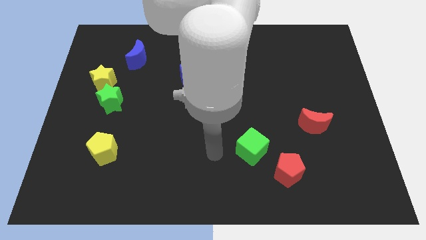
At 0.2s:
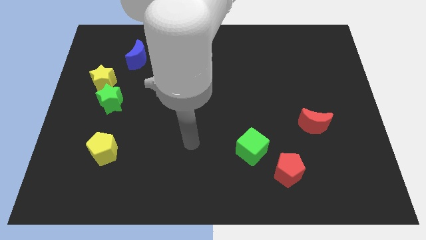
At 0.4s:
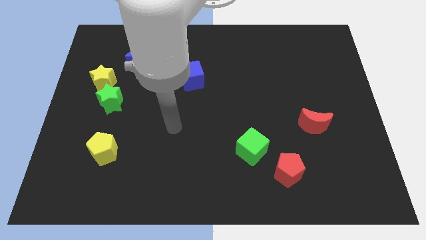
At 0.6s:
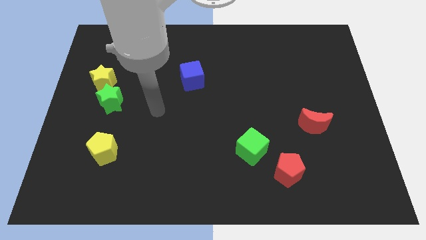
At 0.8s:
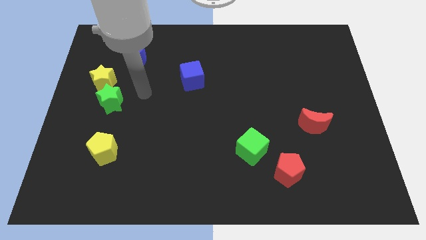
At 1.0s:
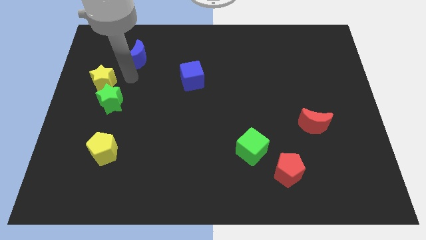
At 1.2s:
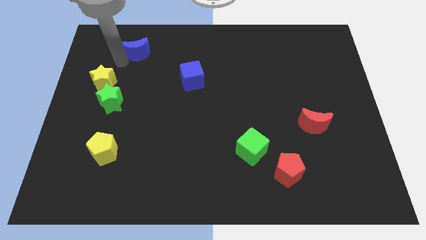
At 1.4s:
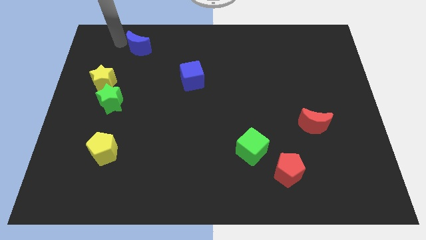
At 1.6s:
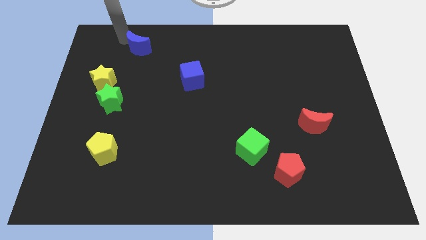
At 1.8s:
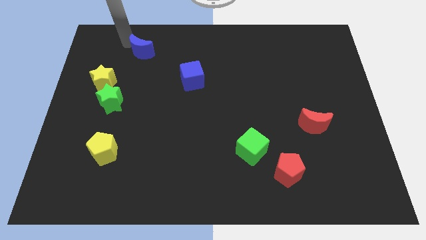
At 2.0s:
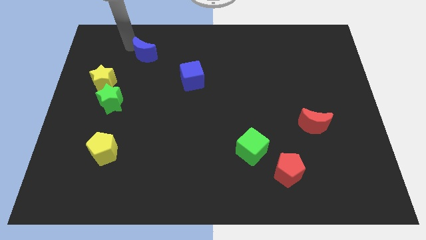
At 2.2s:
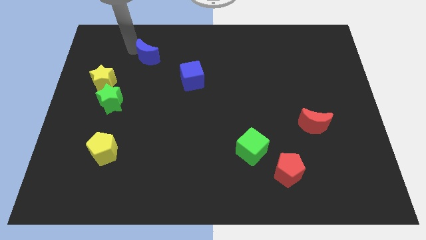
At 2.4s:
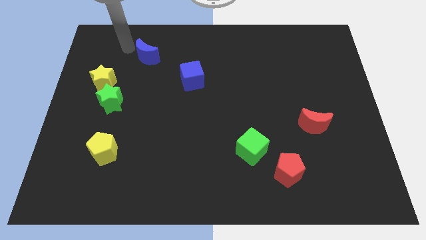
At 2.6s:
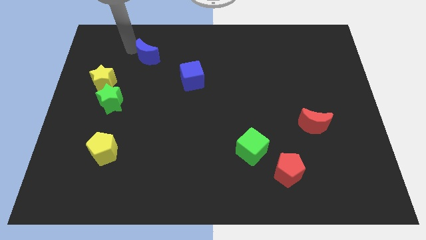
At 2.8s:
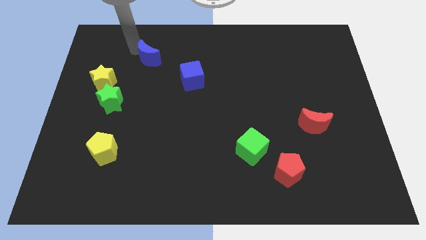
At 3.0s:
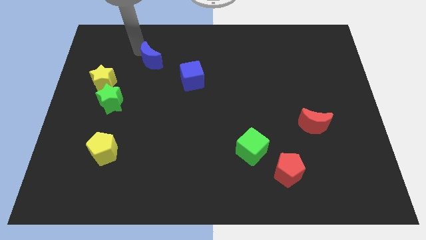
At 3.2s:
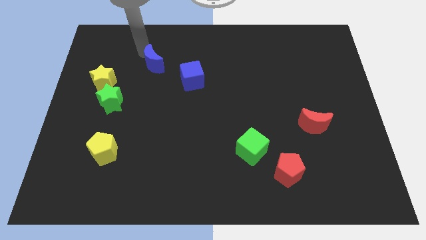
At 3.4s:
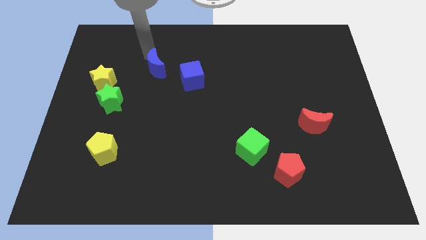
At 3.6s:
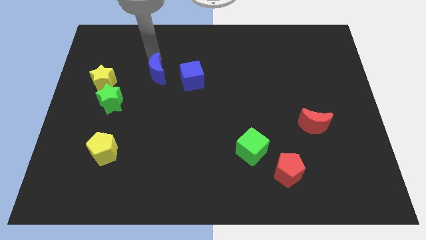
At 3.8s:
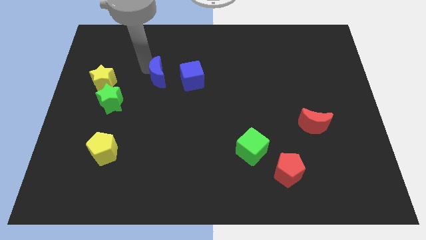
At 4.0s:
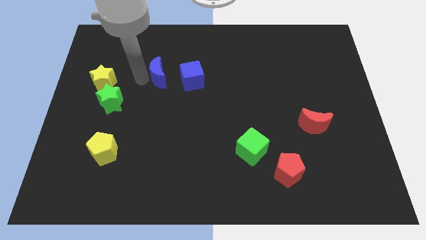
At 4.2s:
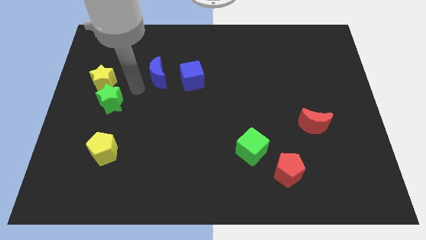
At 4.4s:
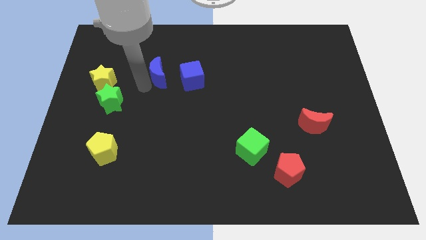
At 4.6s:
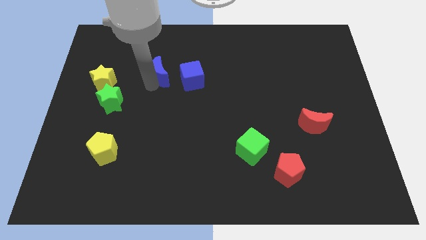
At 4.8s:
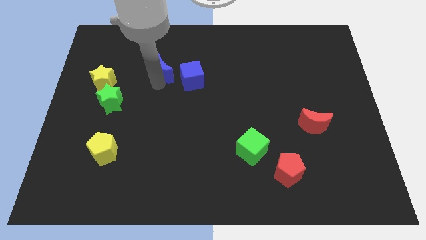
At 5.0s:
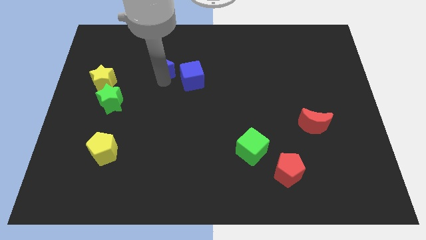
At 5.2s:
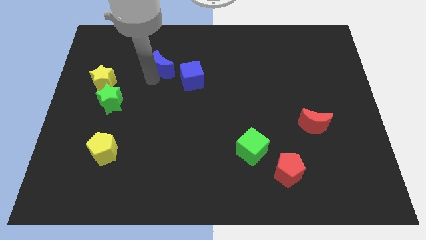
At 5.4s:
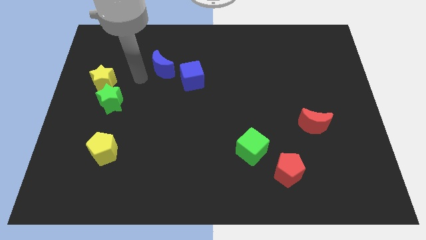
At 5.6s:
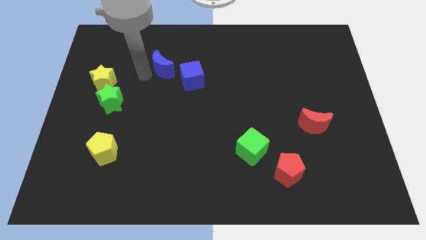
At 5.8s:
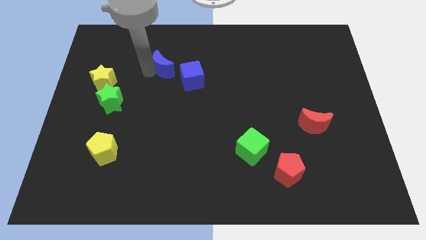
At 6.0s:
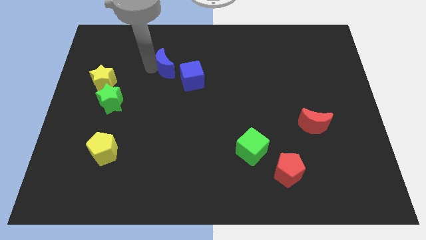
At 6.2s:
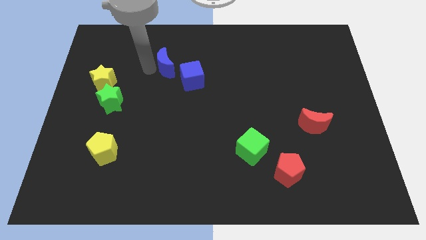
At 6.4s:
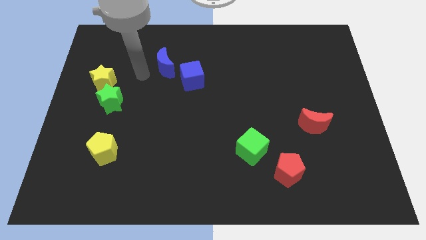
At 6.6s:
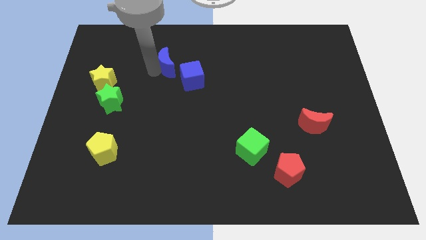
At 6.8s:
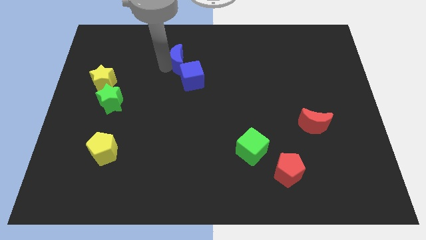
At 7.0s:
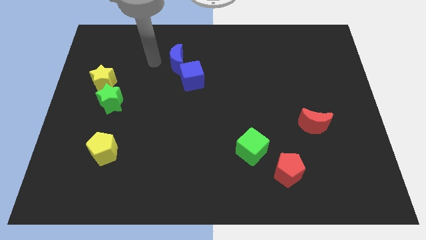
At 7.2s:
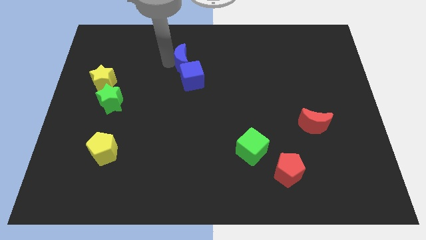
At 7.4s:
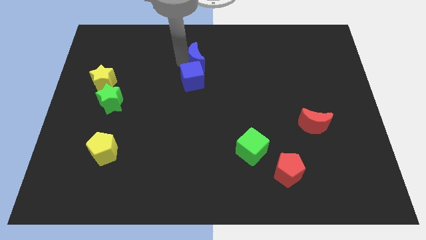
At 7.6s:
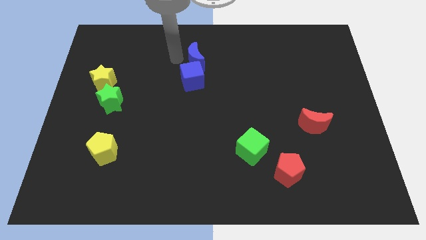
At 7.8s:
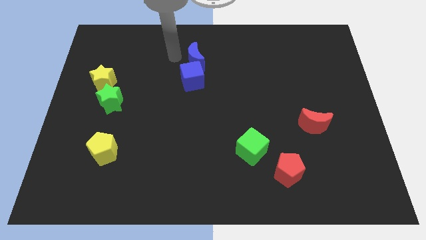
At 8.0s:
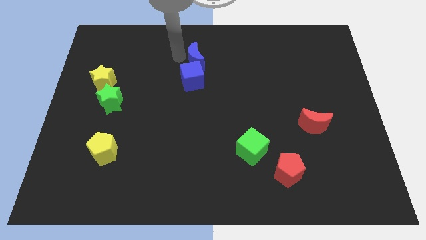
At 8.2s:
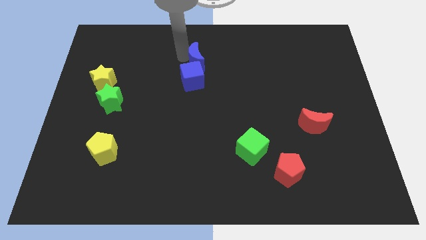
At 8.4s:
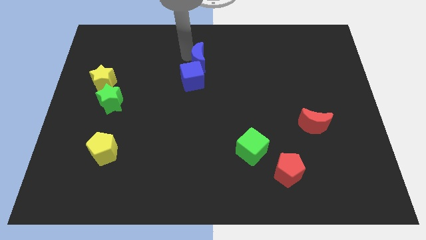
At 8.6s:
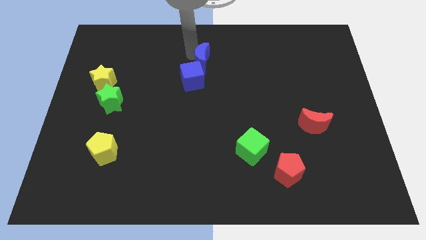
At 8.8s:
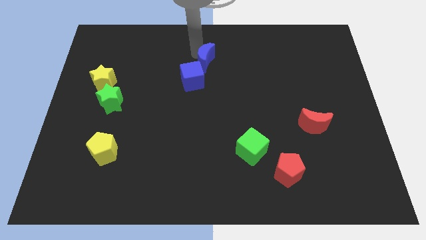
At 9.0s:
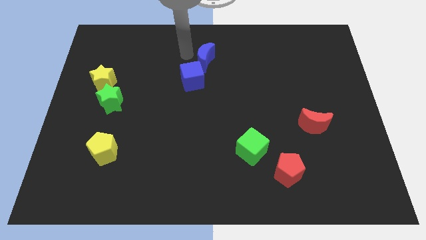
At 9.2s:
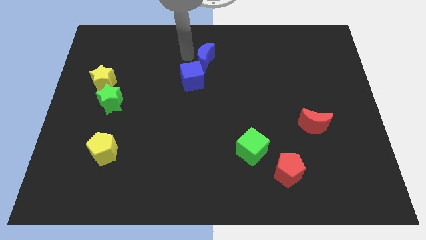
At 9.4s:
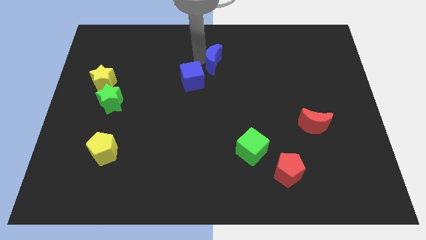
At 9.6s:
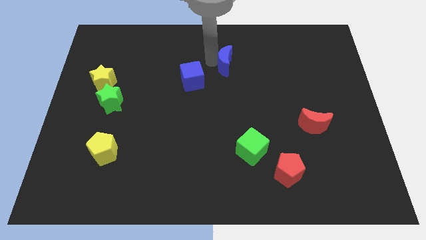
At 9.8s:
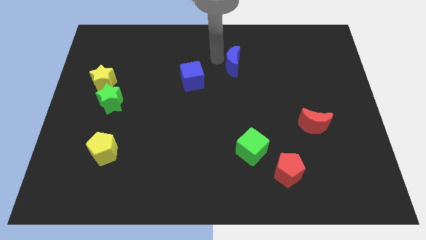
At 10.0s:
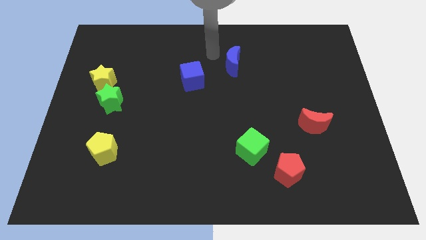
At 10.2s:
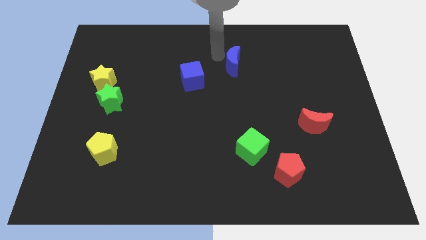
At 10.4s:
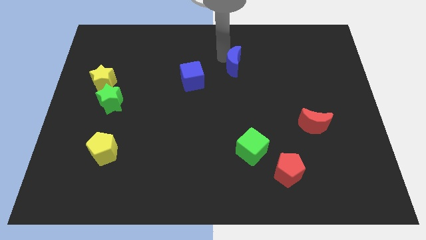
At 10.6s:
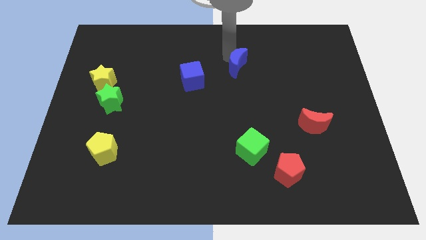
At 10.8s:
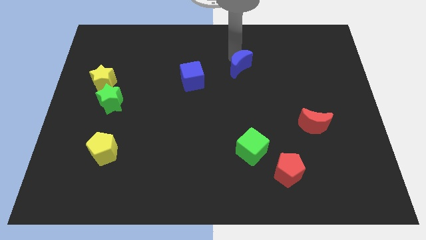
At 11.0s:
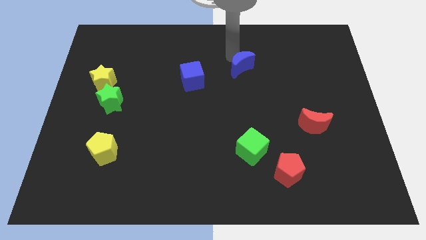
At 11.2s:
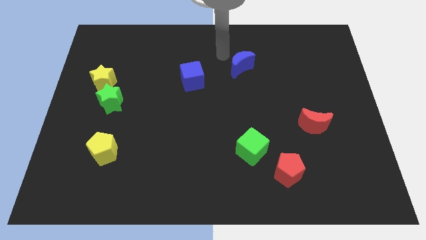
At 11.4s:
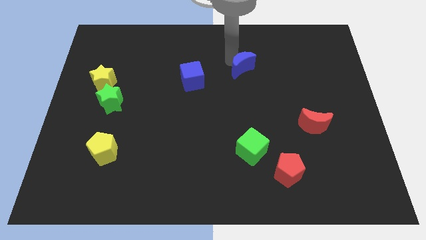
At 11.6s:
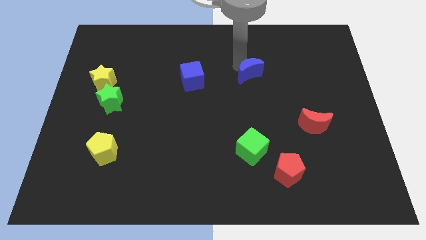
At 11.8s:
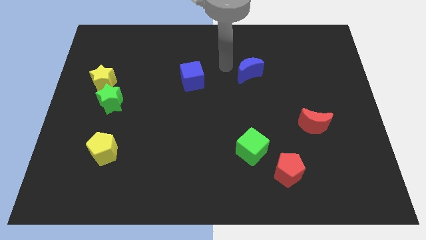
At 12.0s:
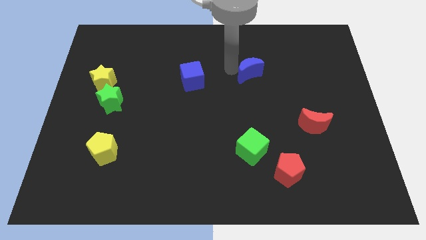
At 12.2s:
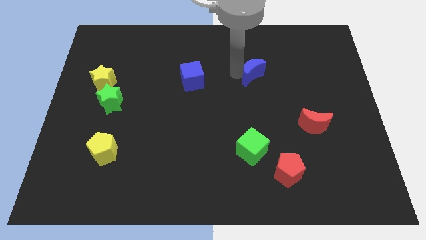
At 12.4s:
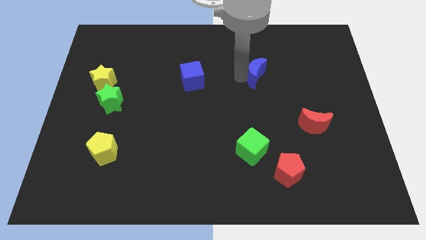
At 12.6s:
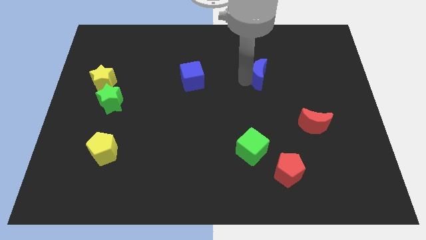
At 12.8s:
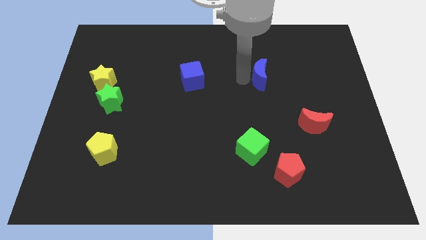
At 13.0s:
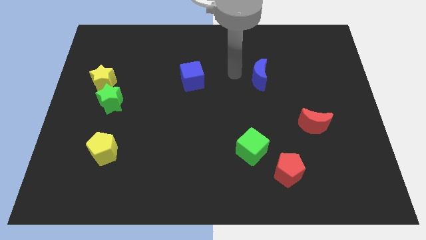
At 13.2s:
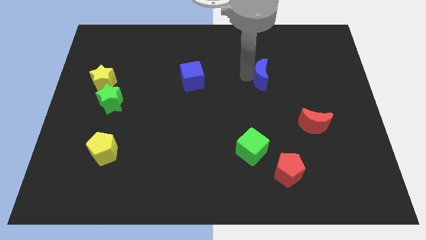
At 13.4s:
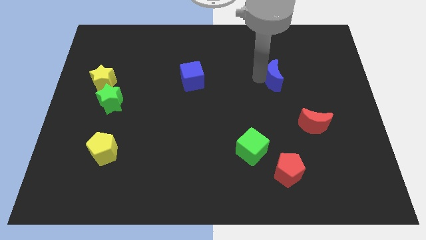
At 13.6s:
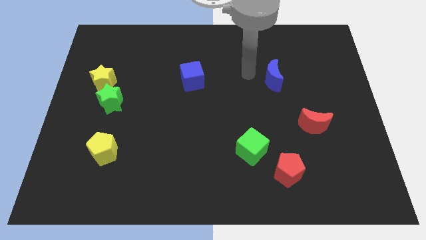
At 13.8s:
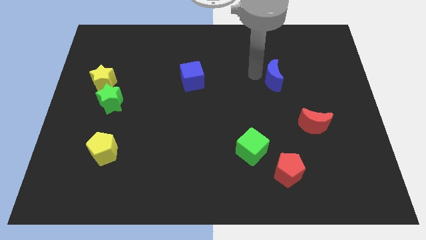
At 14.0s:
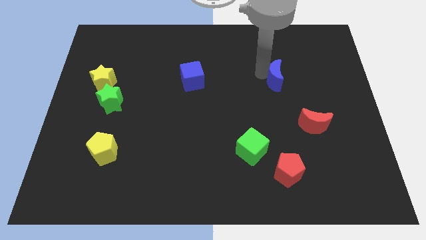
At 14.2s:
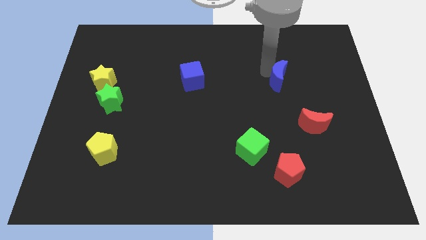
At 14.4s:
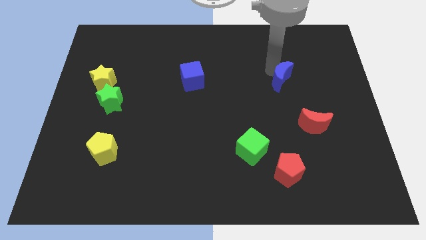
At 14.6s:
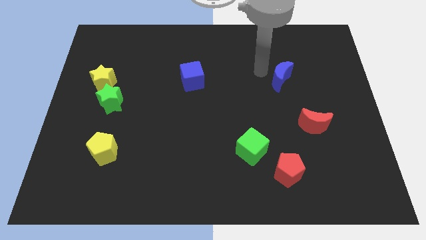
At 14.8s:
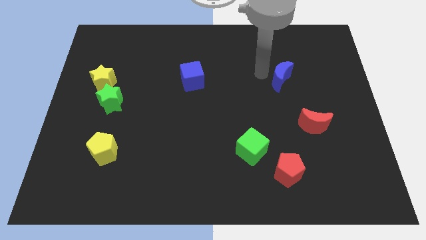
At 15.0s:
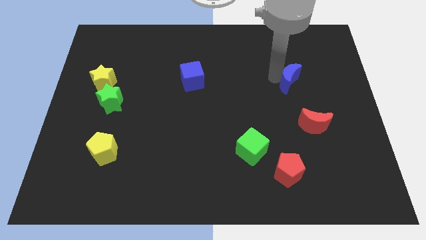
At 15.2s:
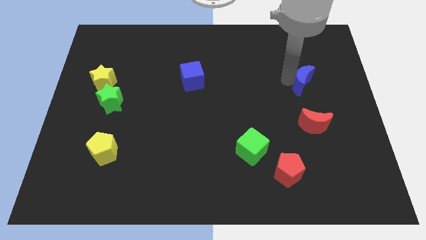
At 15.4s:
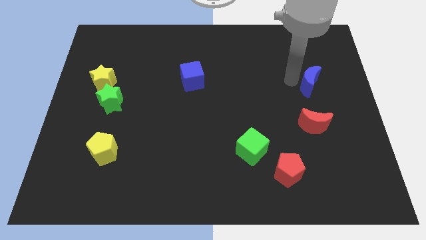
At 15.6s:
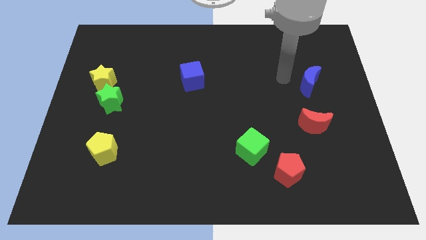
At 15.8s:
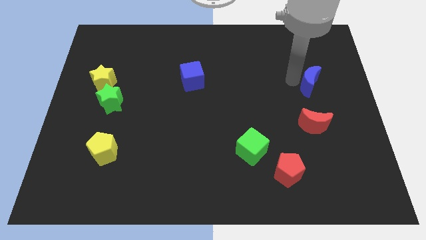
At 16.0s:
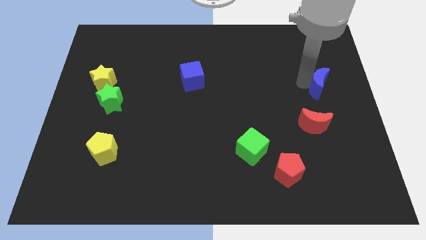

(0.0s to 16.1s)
push the blue moon to the right side of the board
